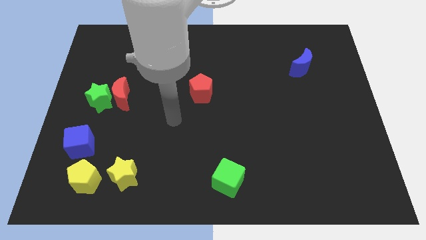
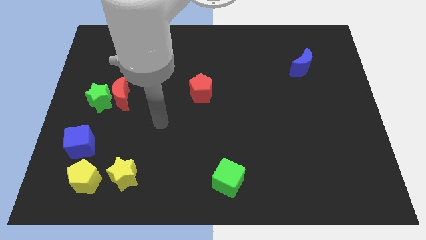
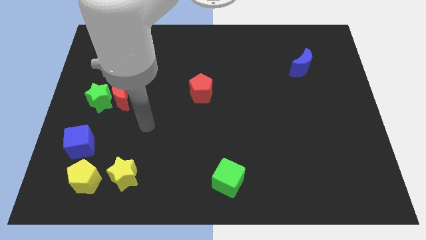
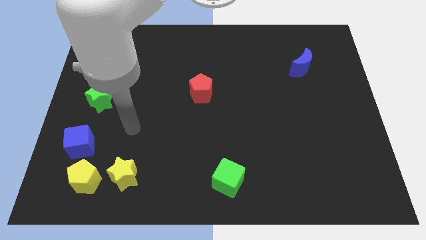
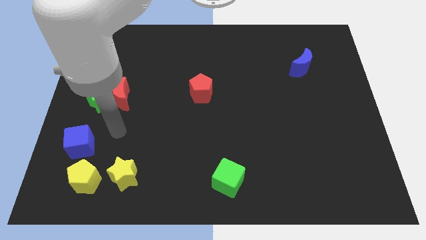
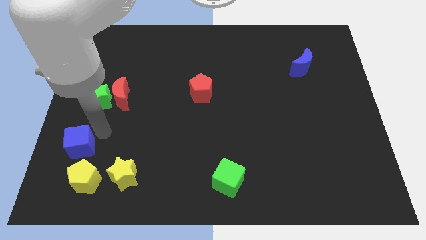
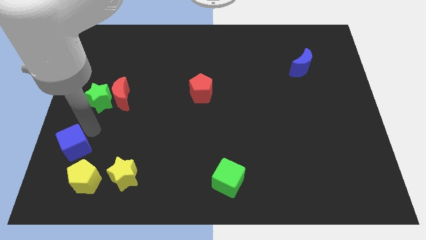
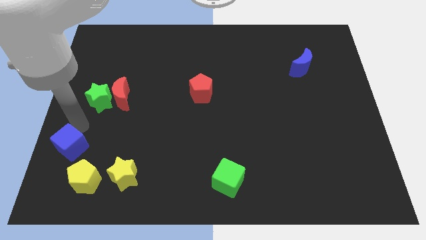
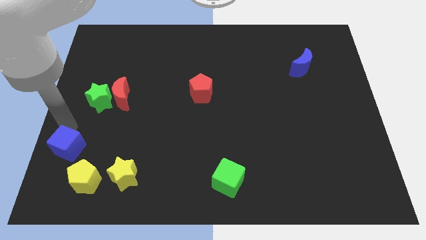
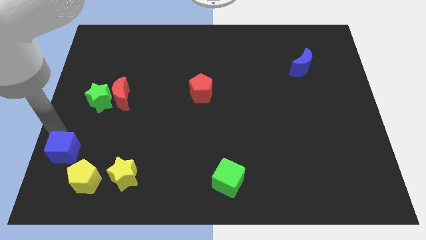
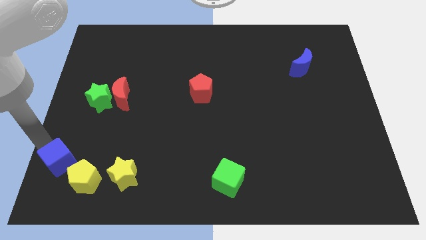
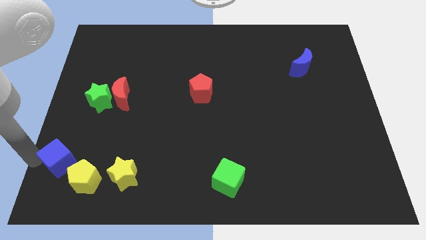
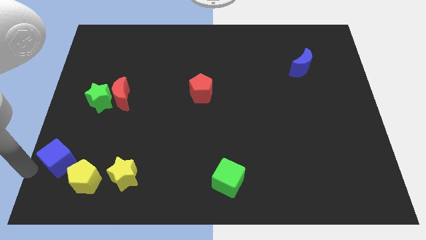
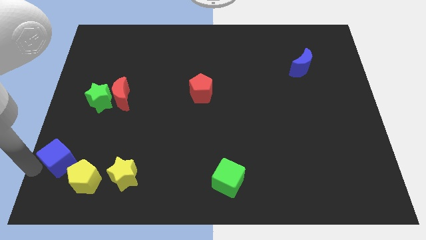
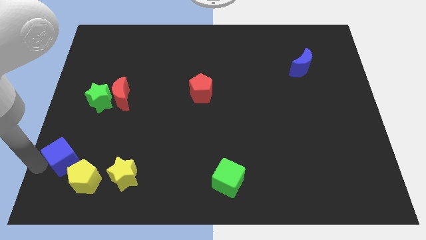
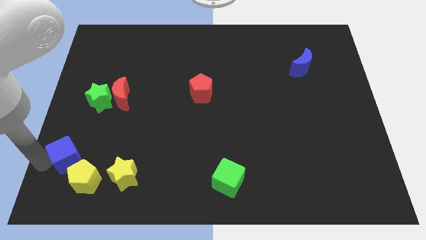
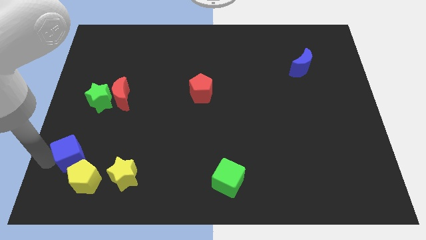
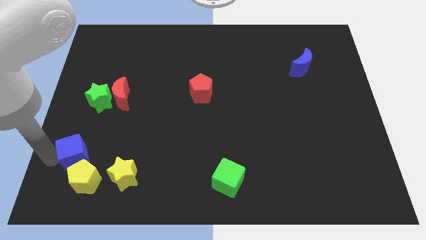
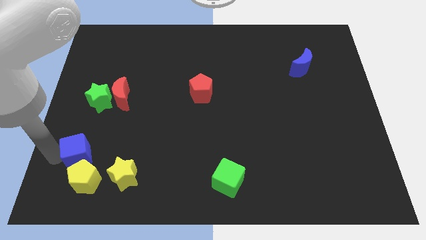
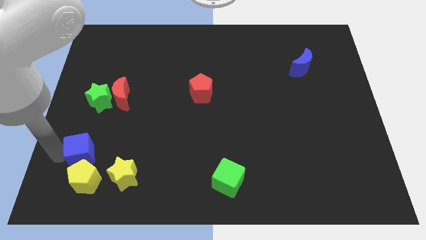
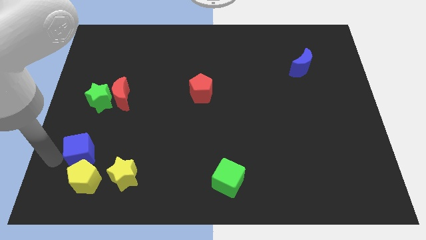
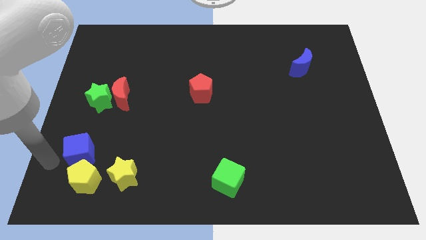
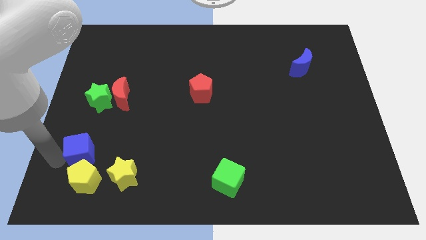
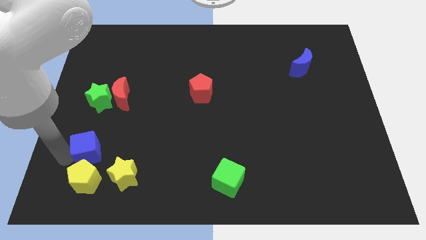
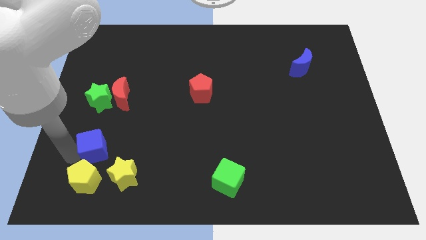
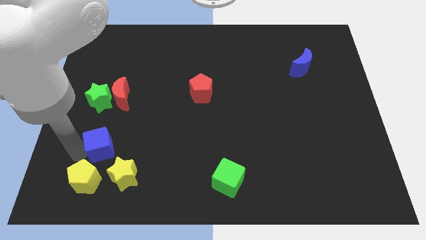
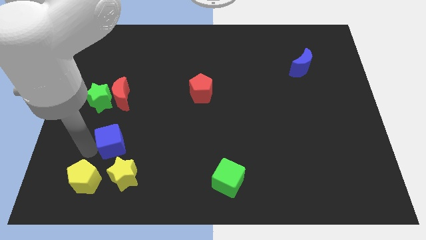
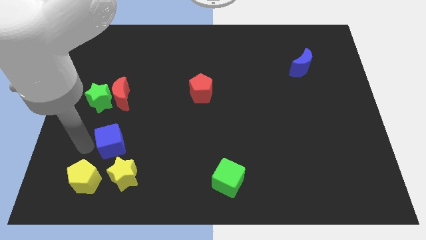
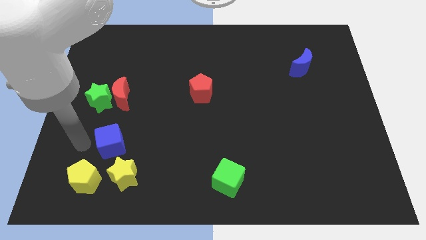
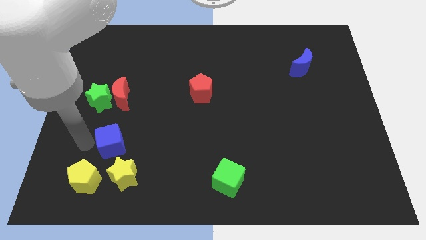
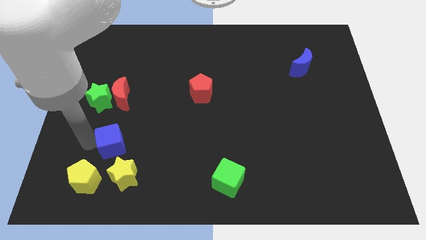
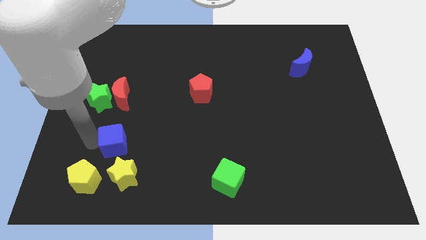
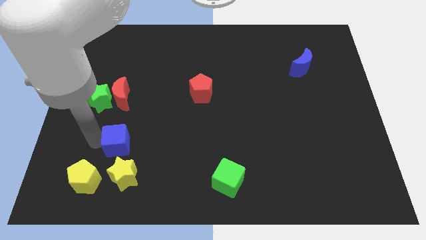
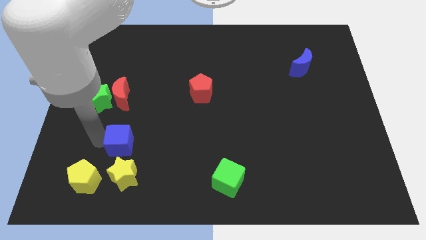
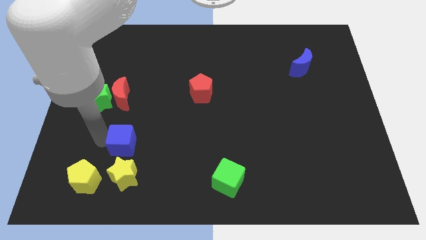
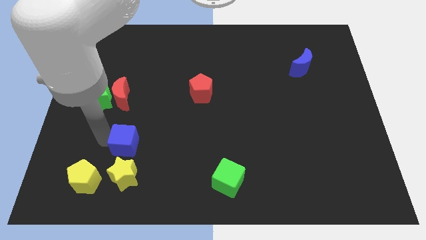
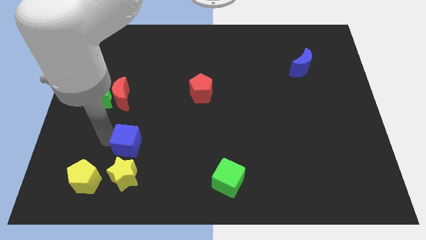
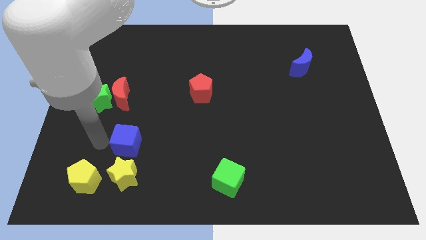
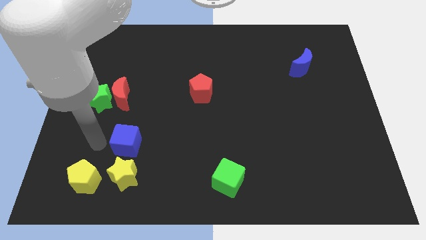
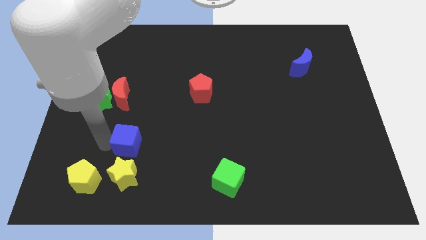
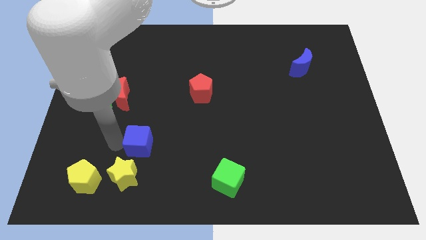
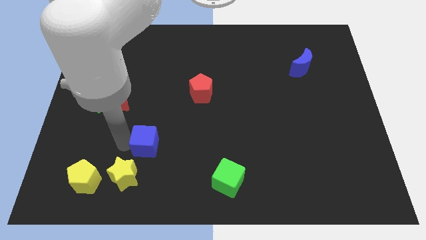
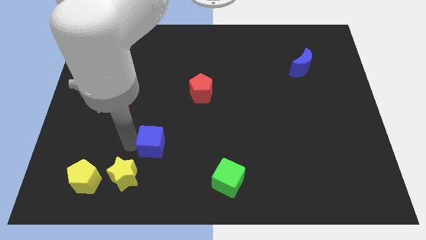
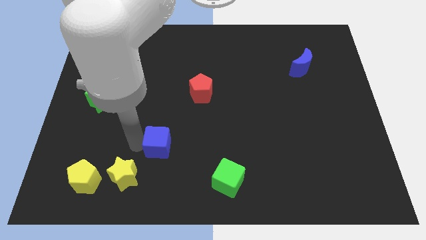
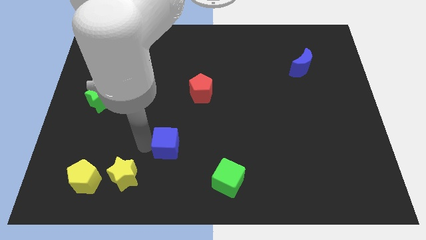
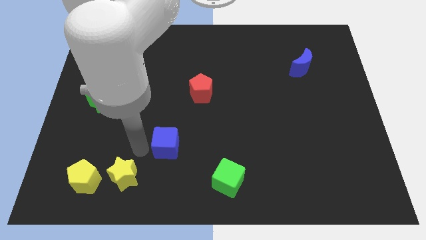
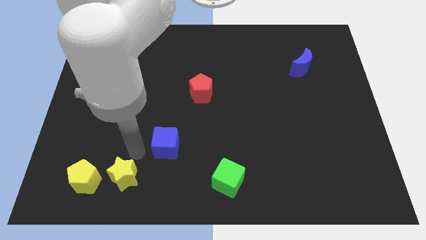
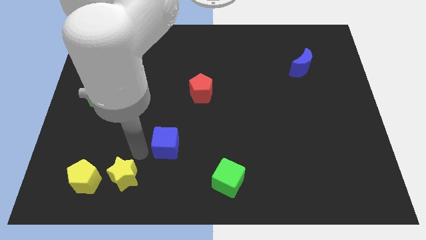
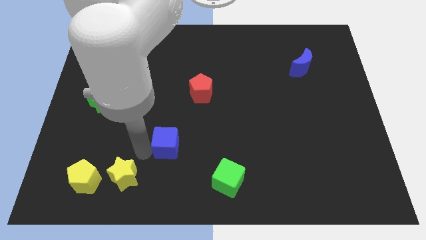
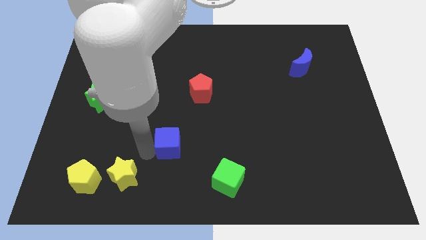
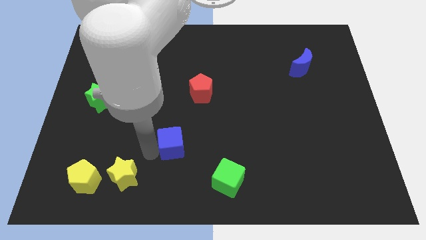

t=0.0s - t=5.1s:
slide the blue cube to the right

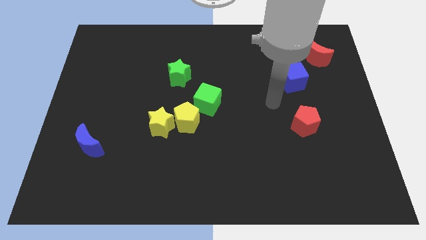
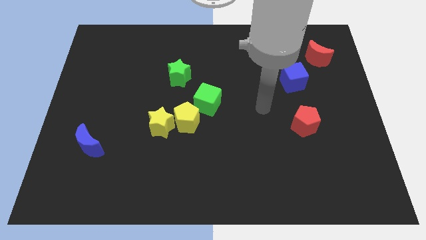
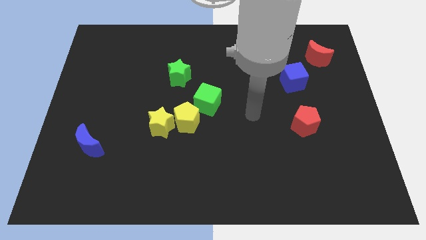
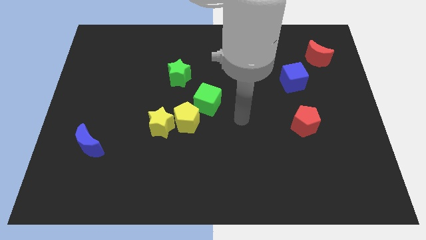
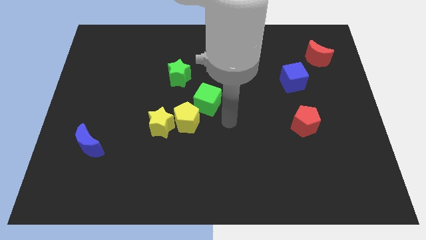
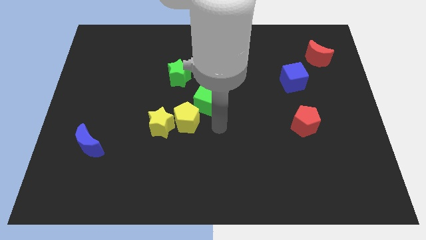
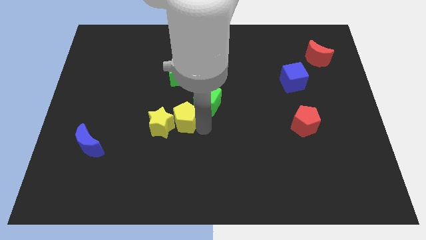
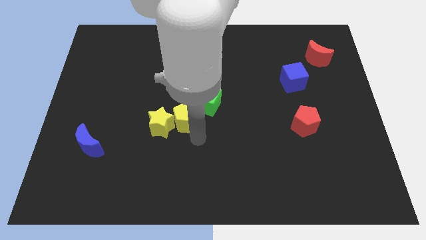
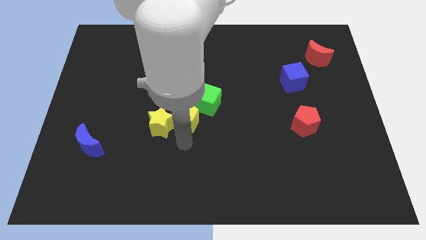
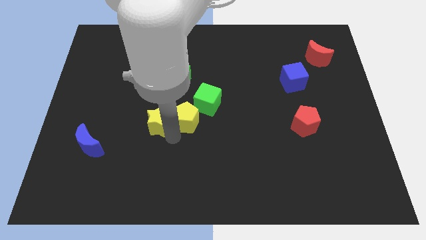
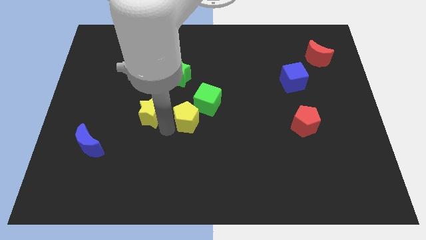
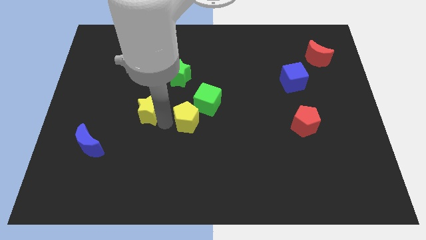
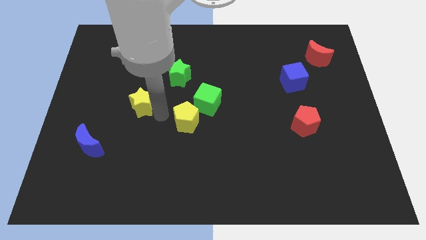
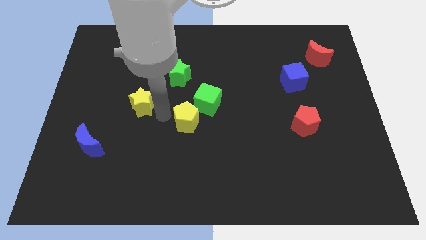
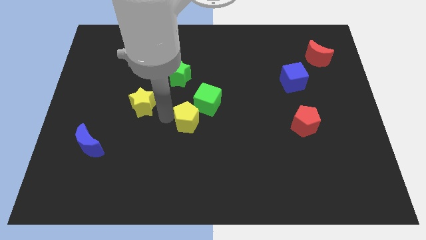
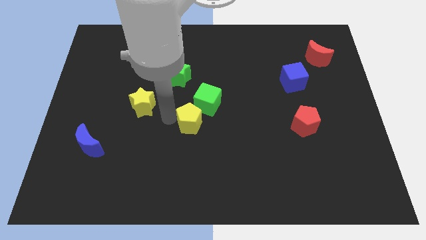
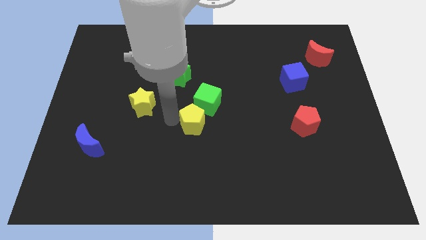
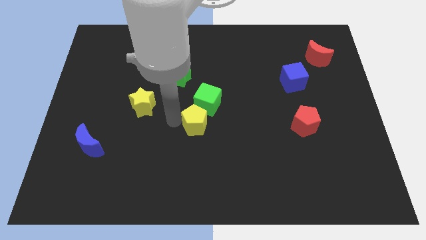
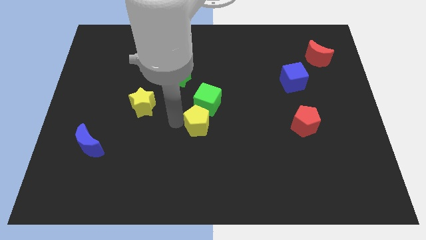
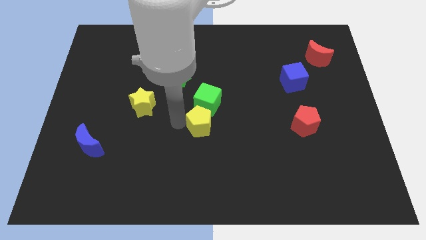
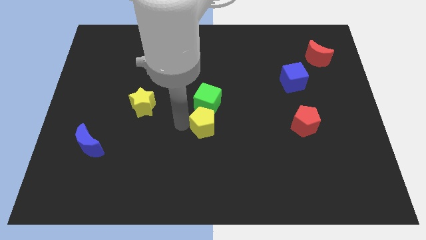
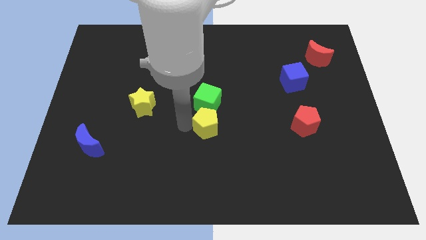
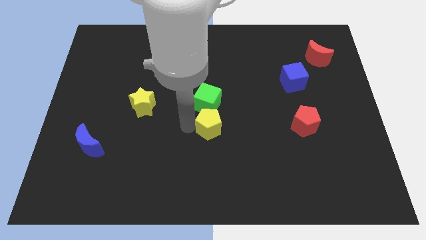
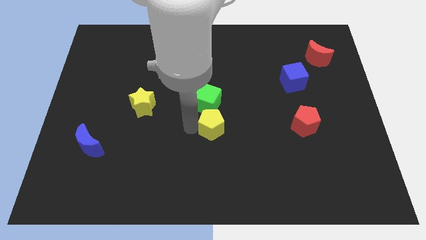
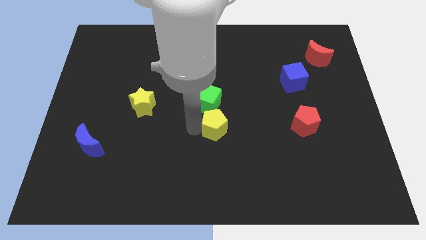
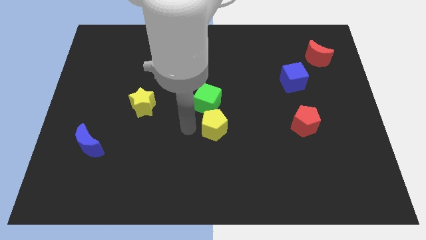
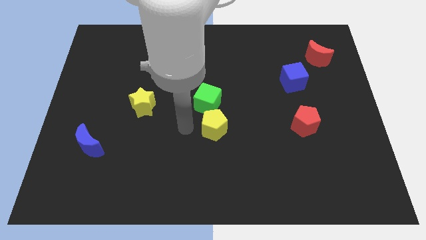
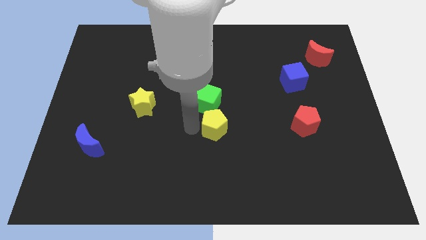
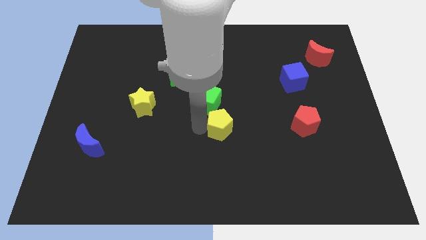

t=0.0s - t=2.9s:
move the yellow pentagon a little right
